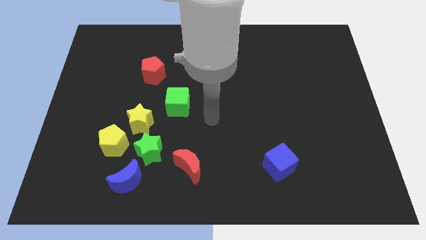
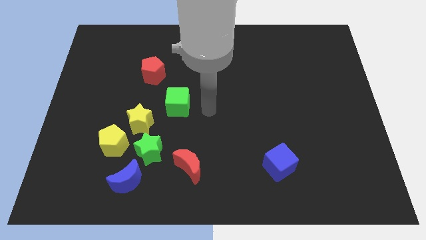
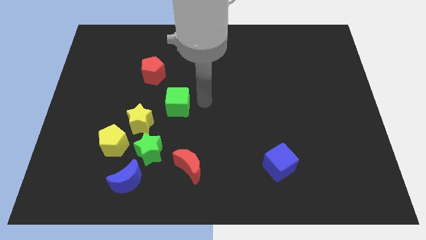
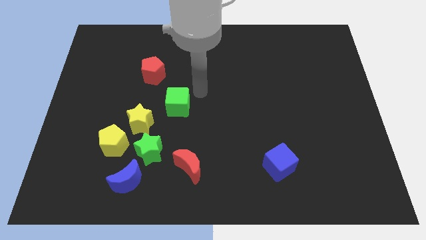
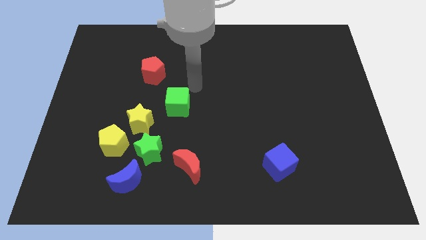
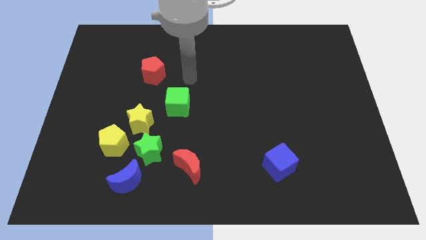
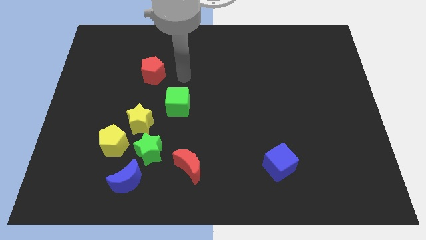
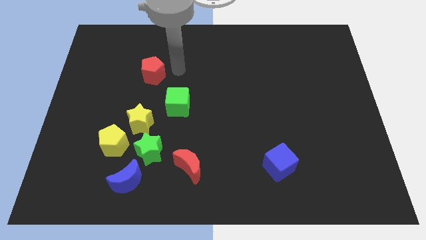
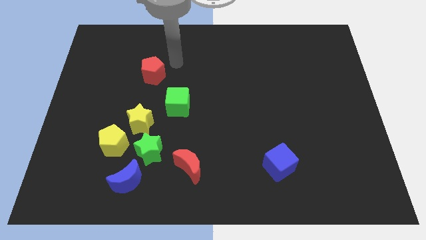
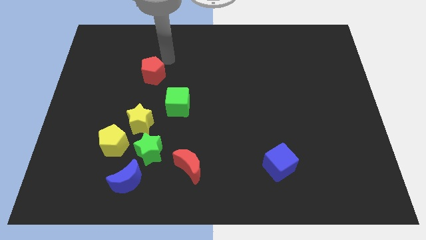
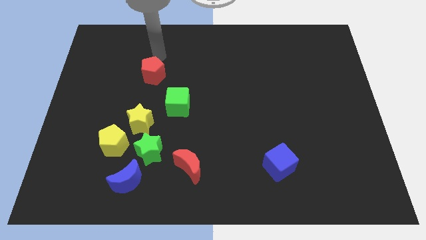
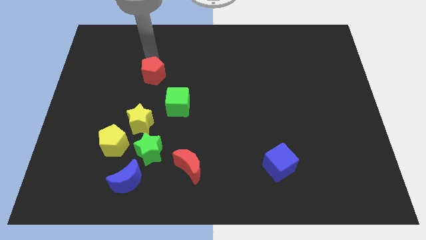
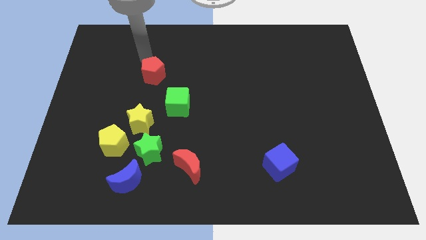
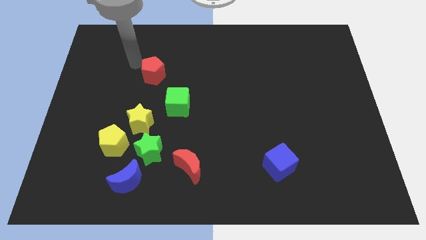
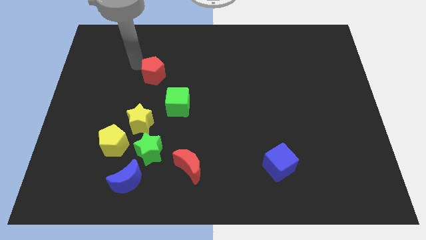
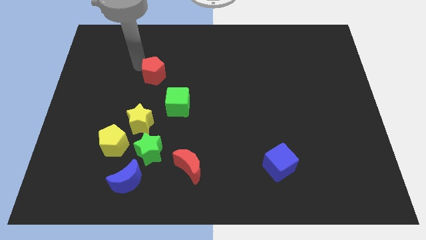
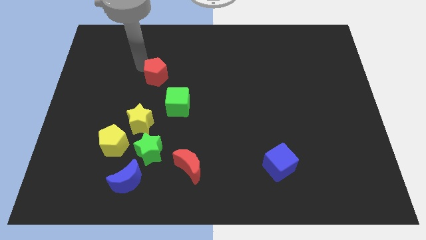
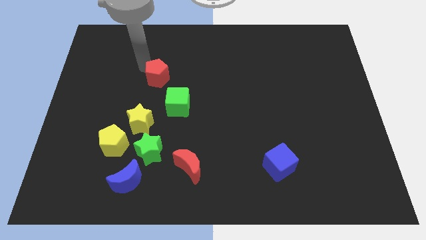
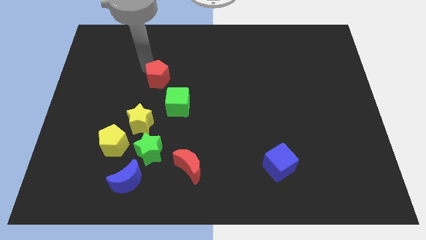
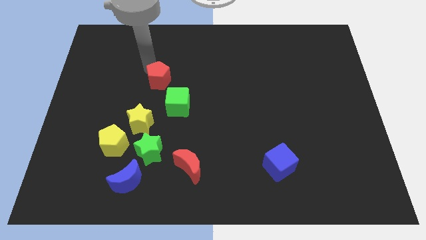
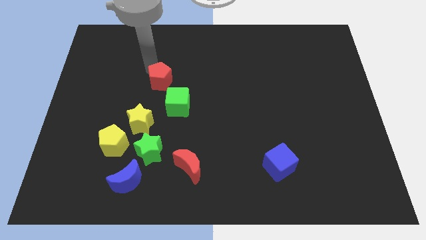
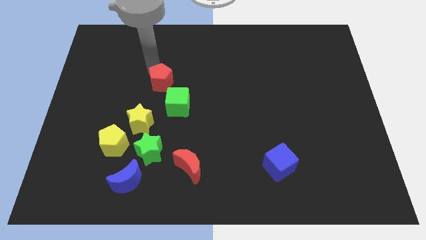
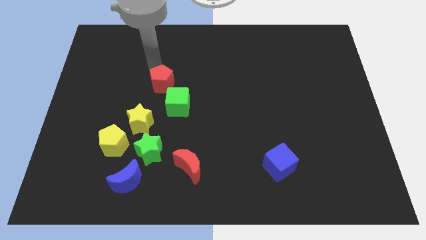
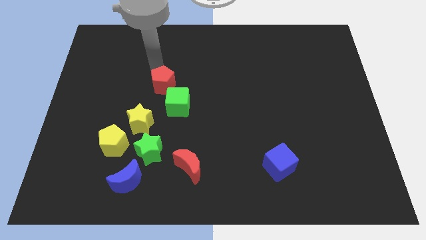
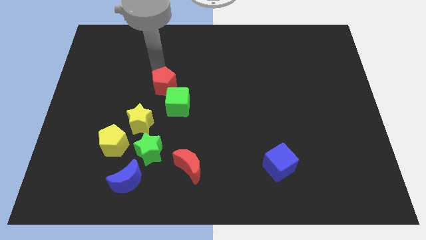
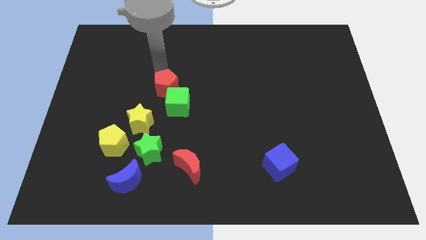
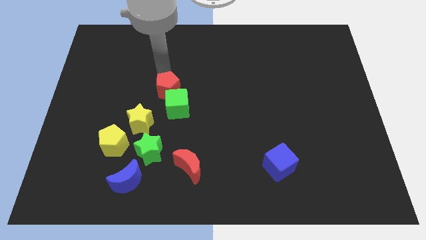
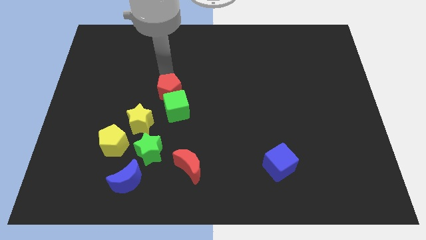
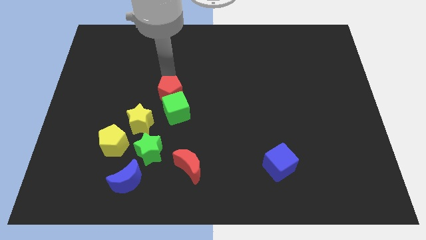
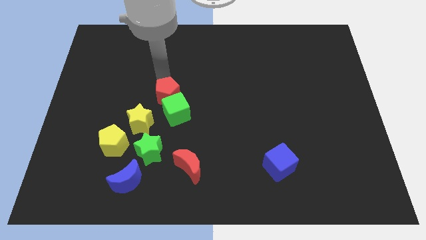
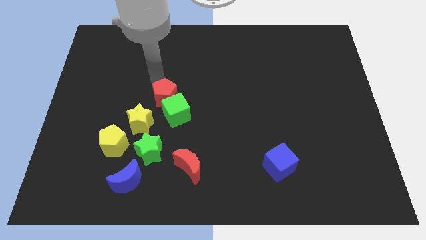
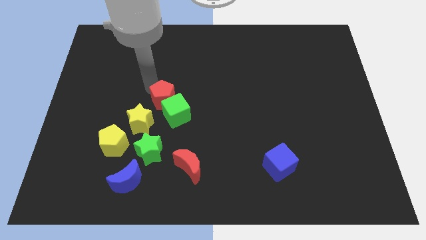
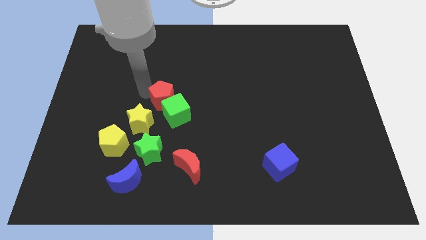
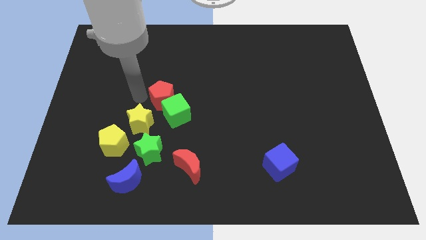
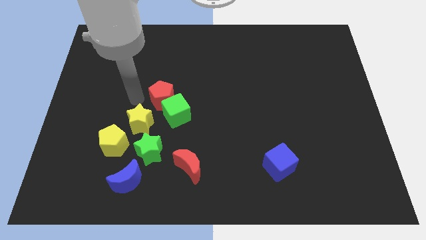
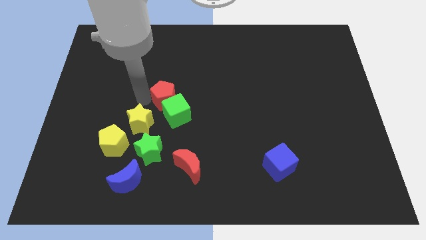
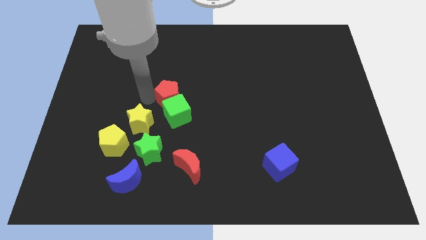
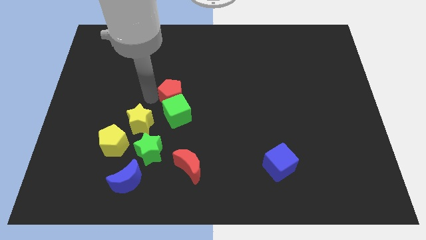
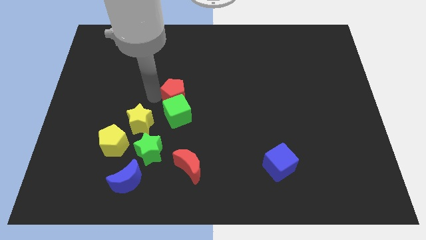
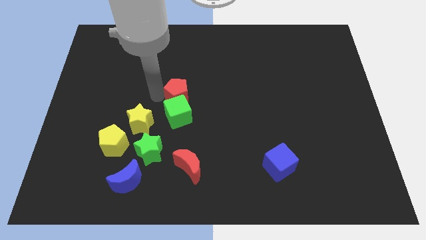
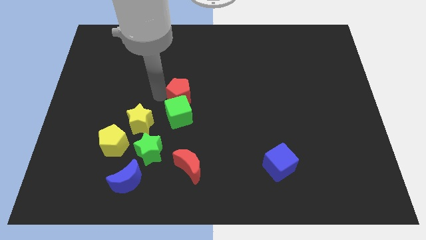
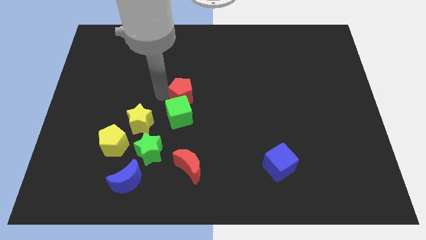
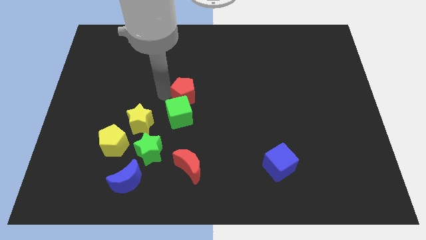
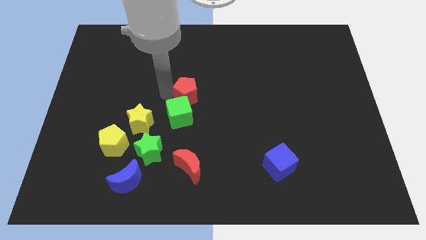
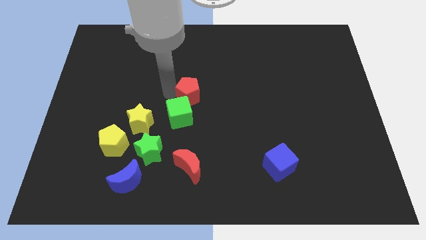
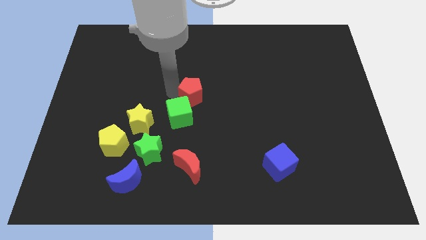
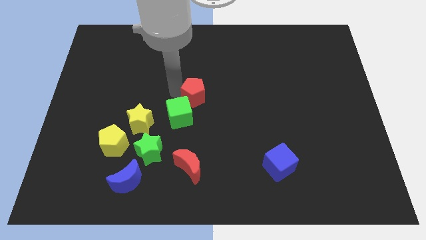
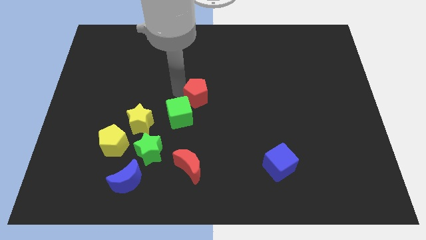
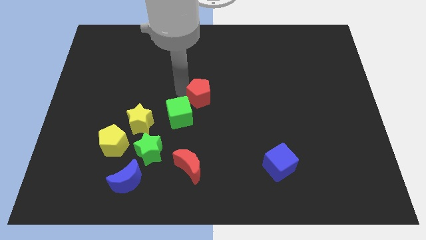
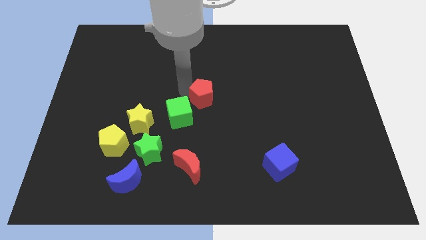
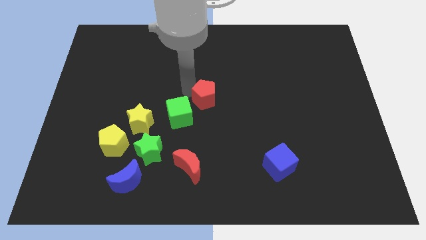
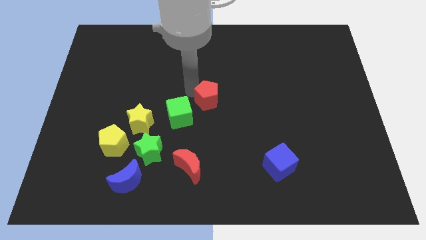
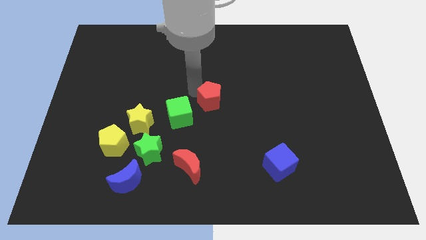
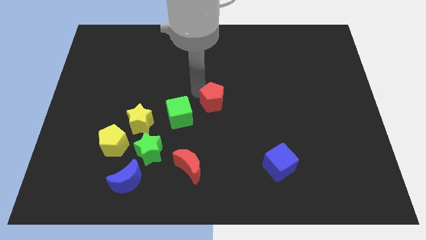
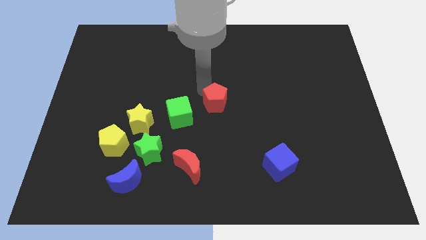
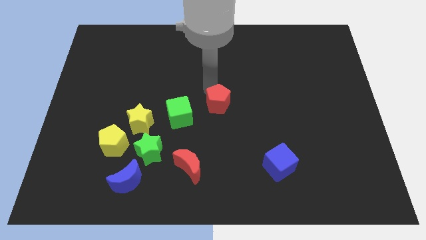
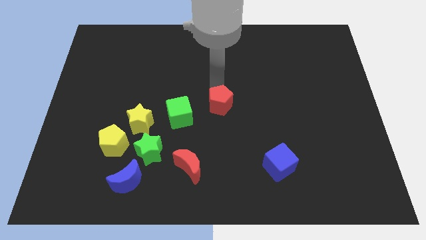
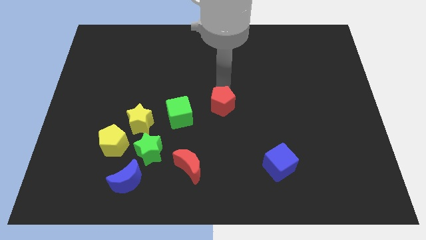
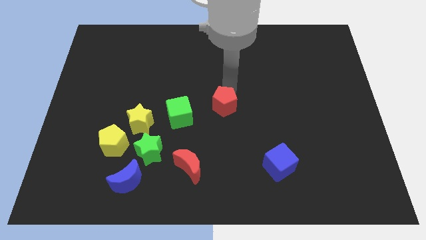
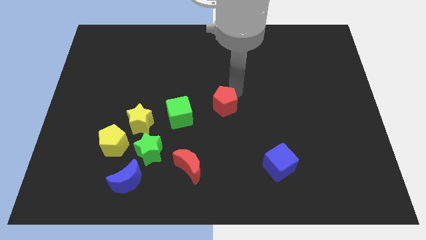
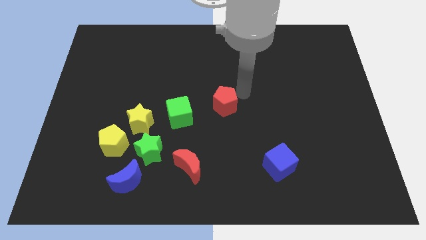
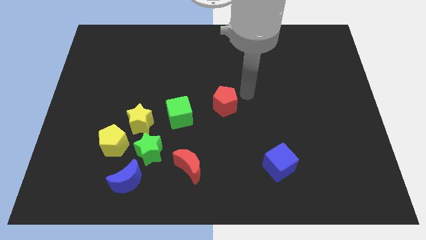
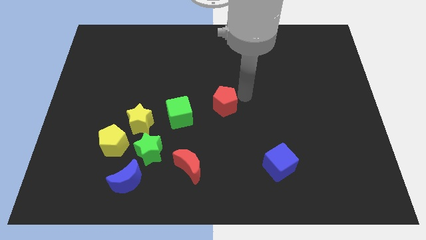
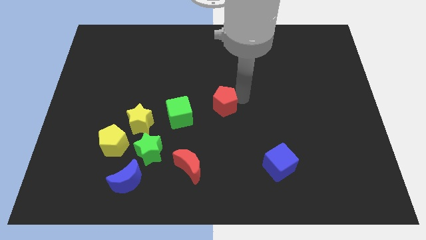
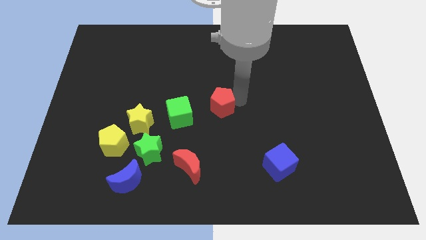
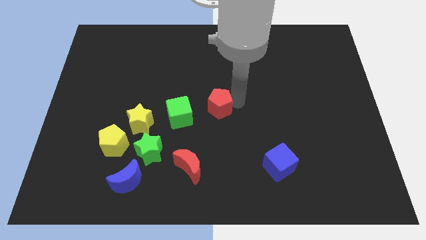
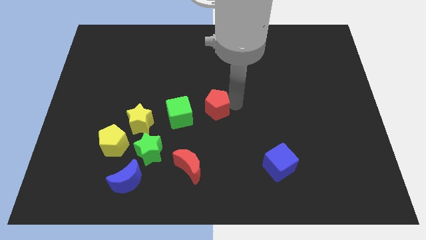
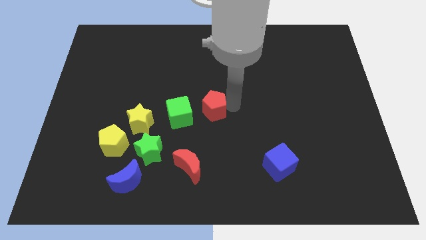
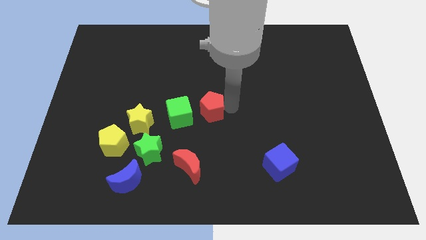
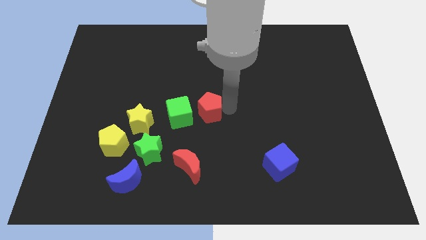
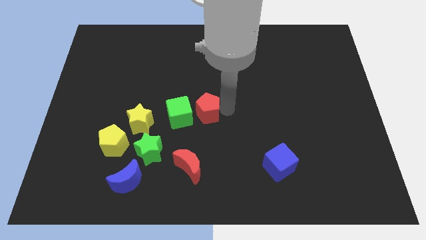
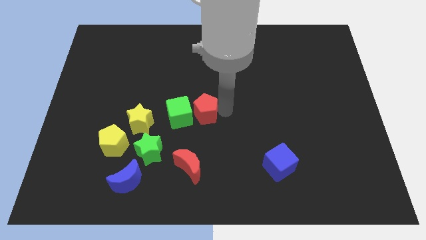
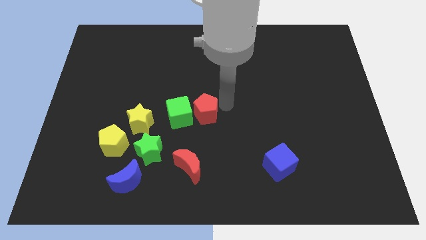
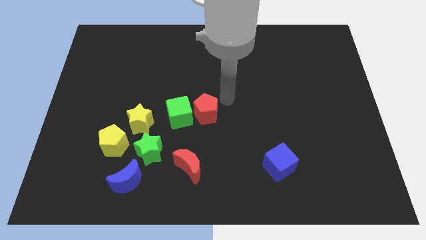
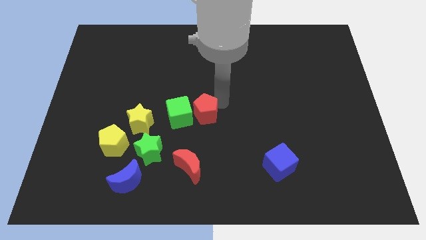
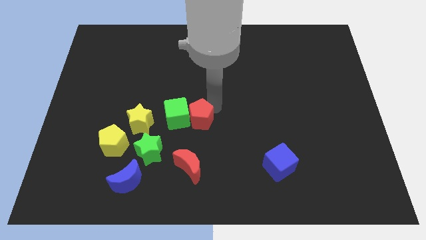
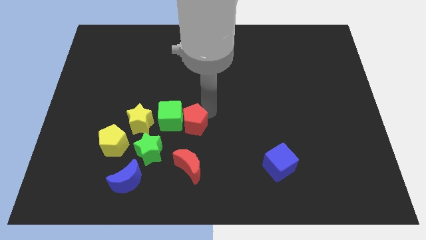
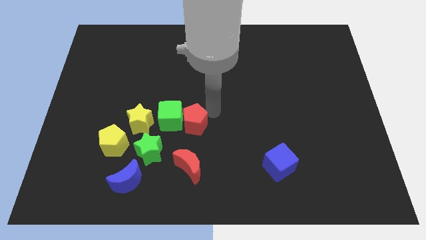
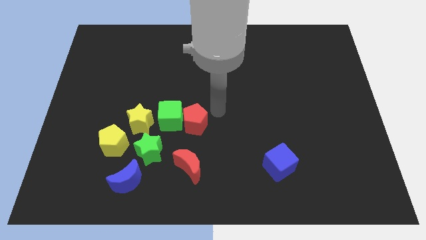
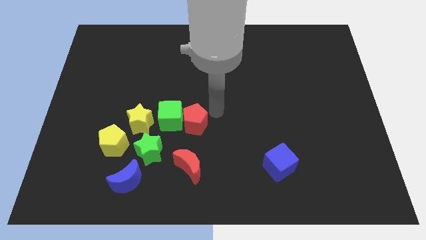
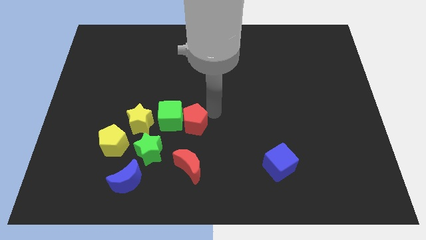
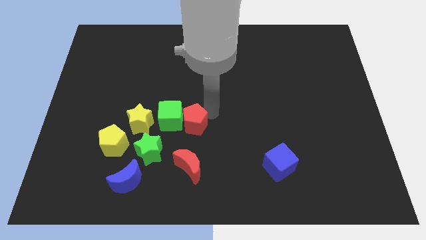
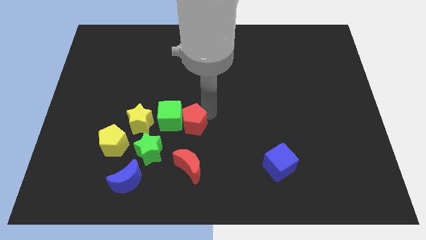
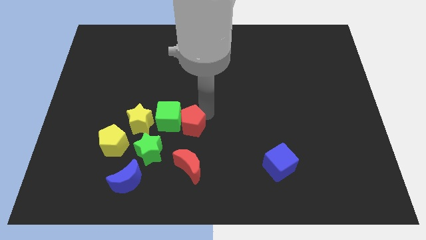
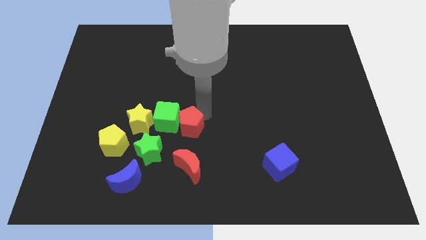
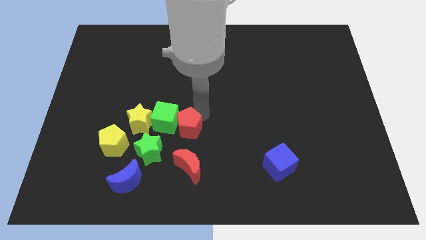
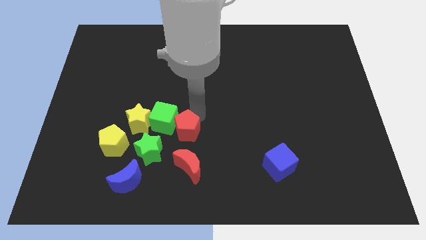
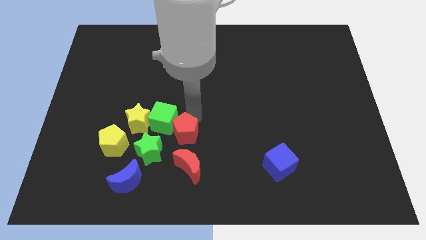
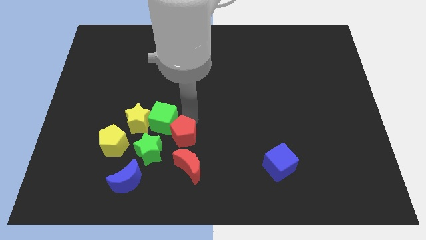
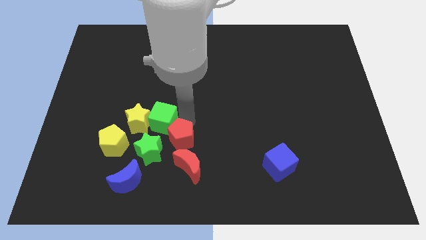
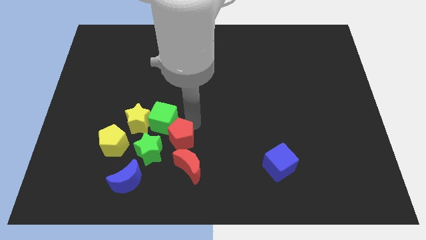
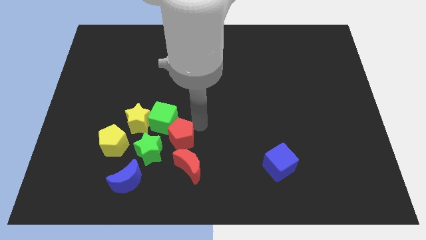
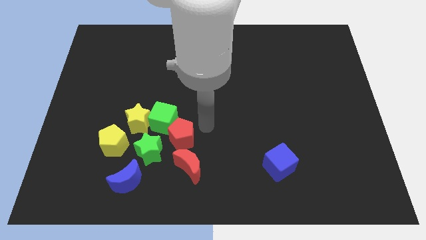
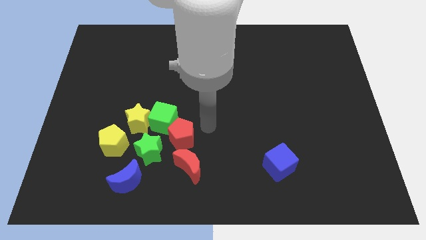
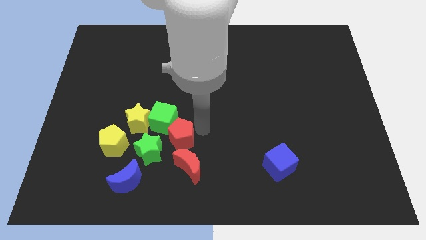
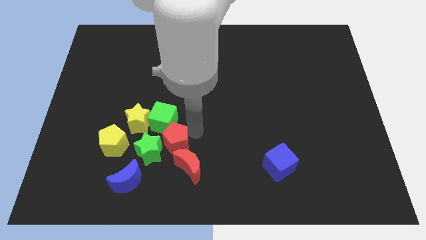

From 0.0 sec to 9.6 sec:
push the red pentagon to the green star
